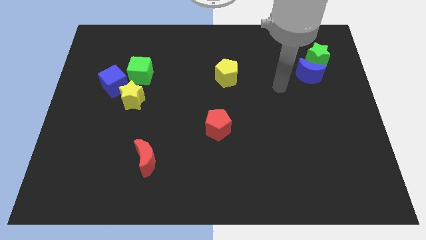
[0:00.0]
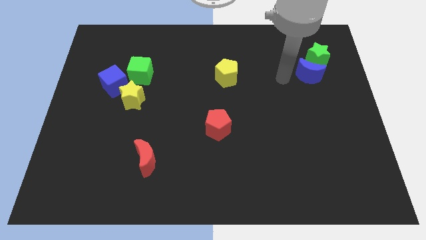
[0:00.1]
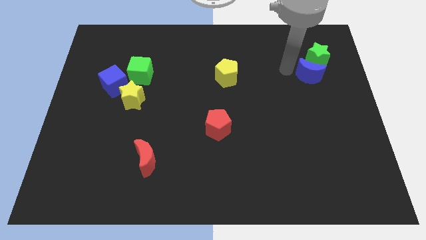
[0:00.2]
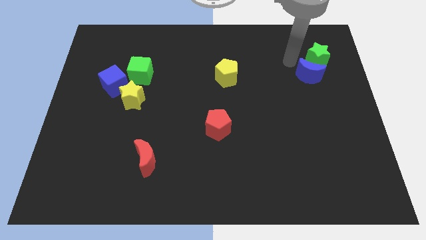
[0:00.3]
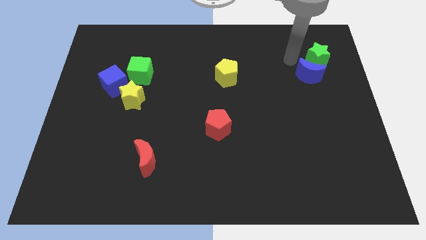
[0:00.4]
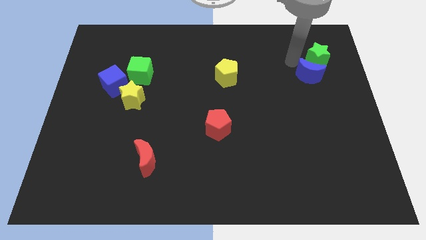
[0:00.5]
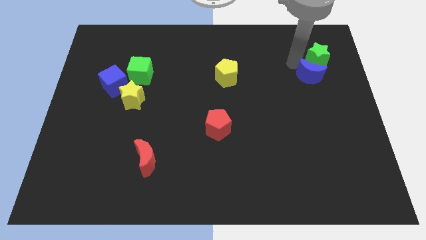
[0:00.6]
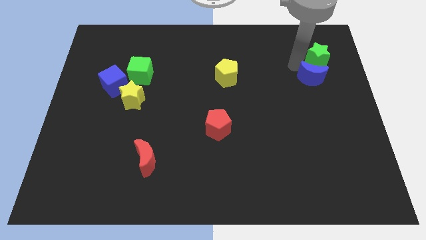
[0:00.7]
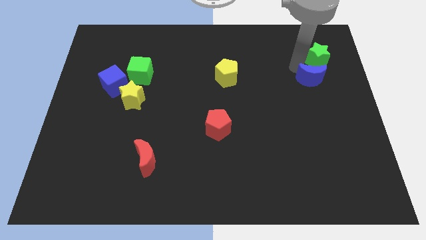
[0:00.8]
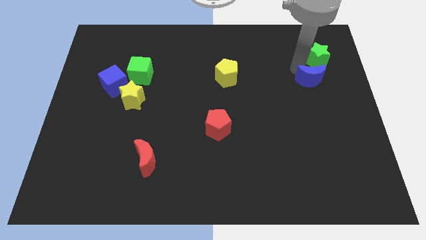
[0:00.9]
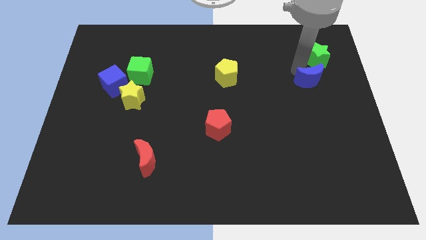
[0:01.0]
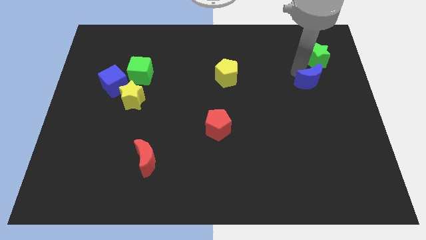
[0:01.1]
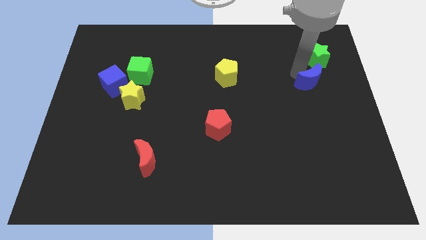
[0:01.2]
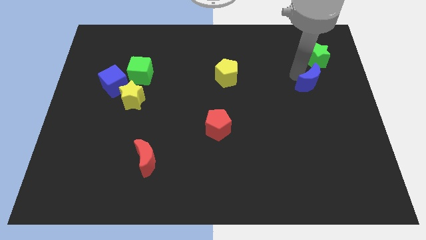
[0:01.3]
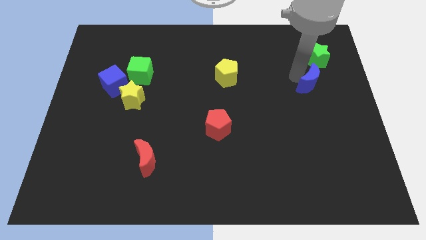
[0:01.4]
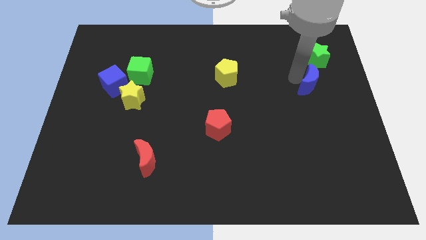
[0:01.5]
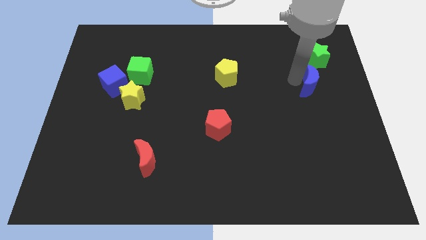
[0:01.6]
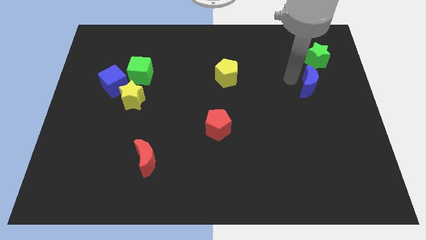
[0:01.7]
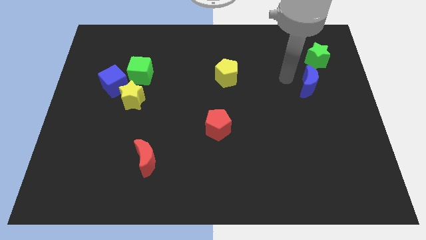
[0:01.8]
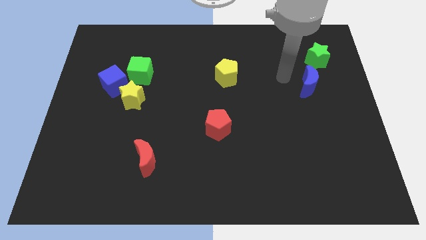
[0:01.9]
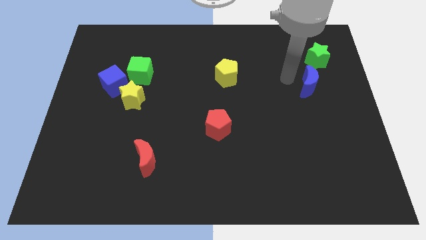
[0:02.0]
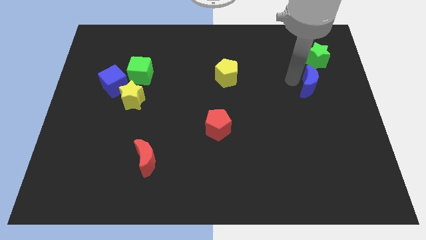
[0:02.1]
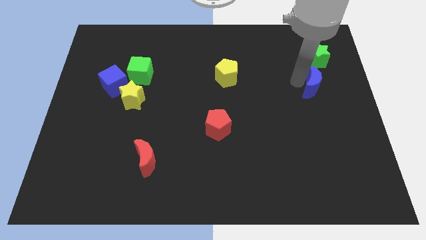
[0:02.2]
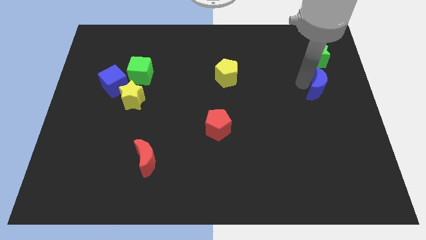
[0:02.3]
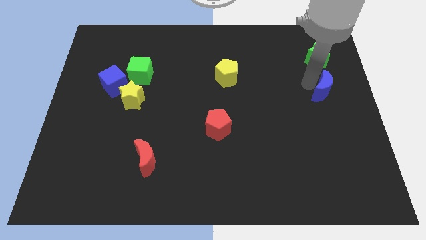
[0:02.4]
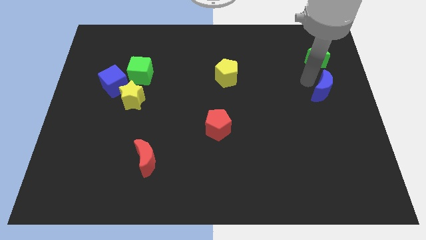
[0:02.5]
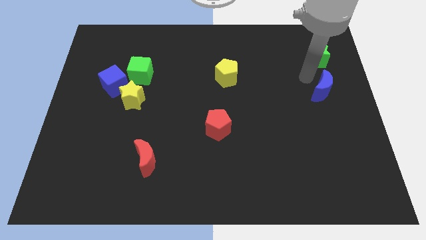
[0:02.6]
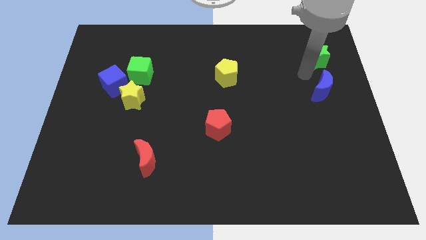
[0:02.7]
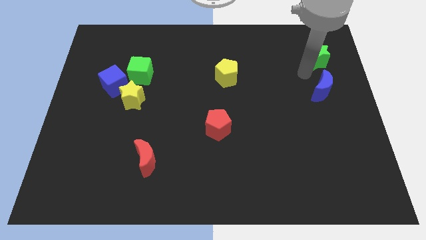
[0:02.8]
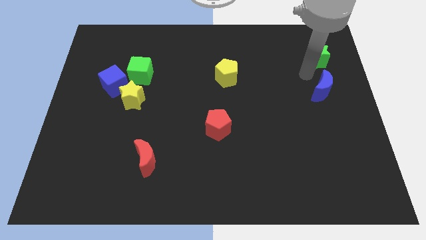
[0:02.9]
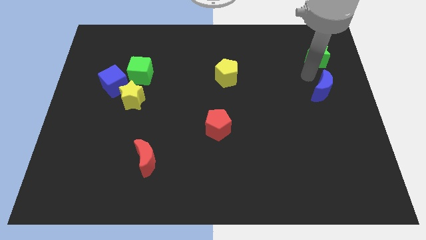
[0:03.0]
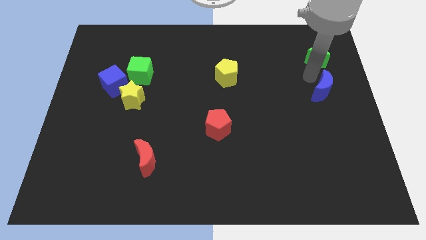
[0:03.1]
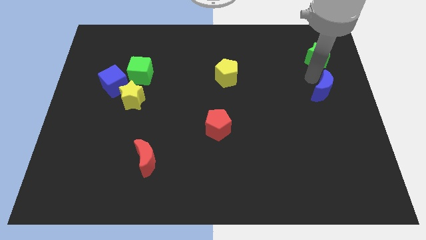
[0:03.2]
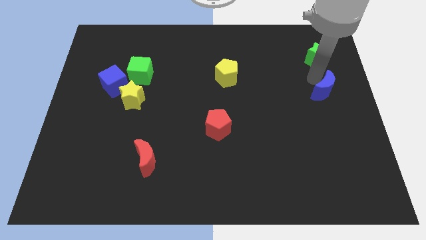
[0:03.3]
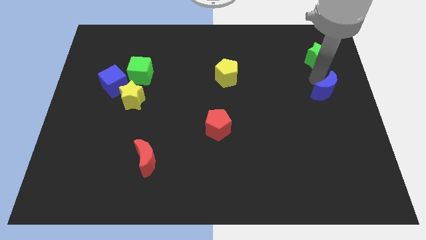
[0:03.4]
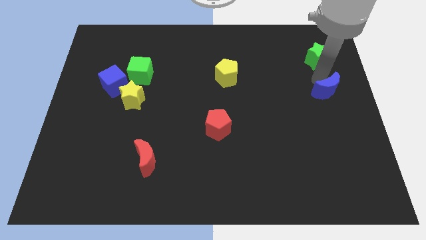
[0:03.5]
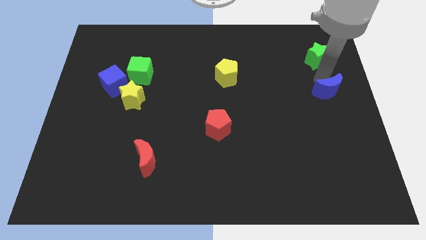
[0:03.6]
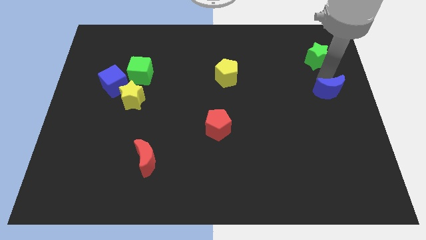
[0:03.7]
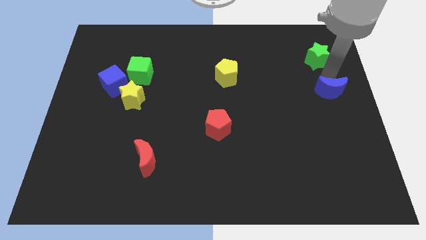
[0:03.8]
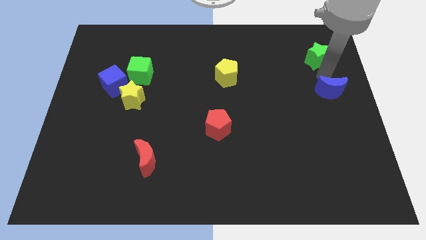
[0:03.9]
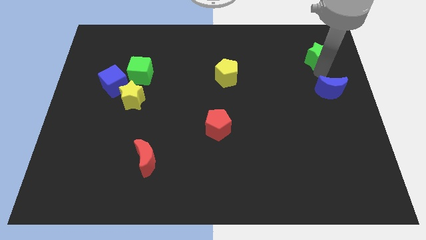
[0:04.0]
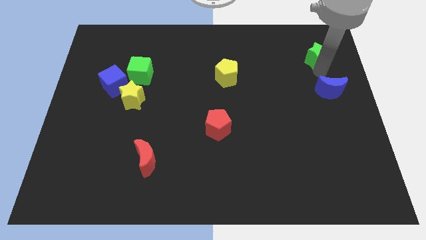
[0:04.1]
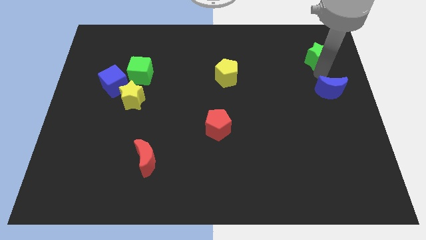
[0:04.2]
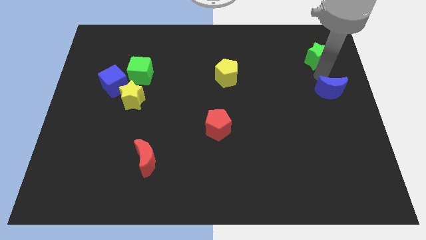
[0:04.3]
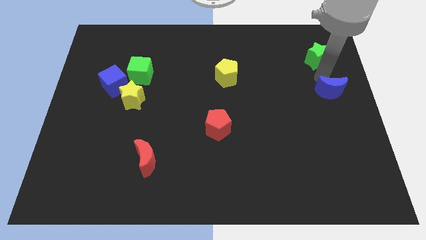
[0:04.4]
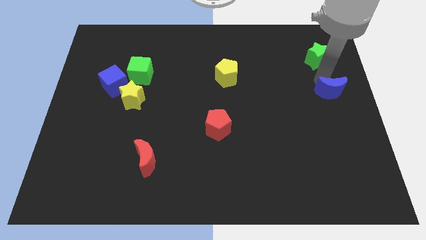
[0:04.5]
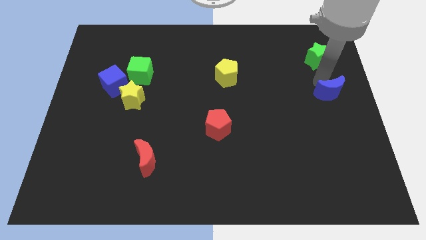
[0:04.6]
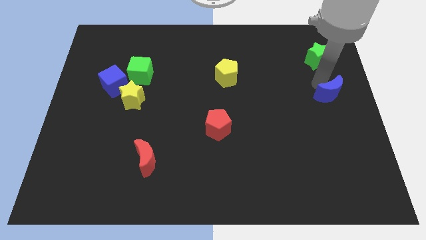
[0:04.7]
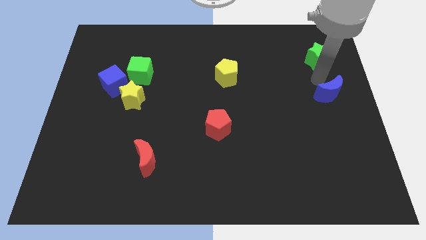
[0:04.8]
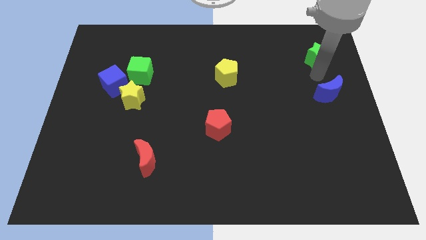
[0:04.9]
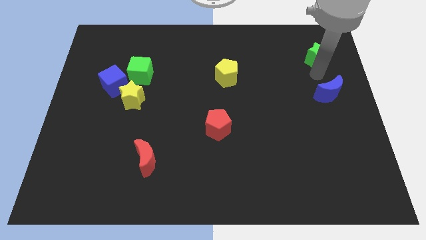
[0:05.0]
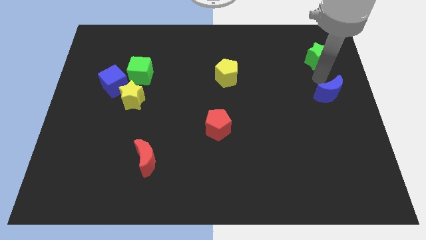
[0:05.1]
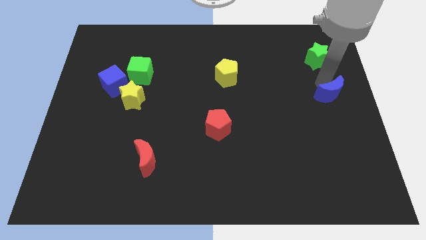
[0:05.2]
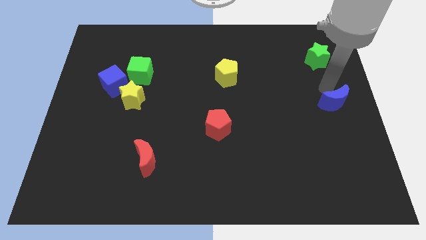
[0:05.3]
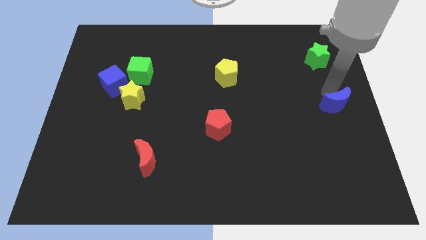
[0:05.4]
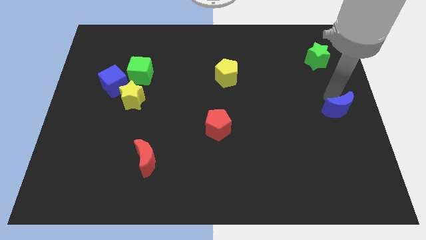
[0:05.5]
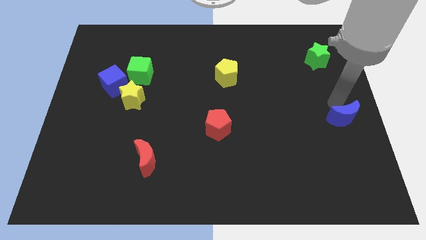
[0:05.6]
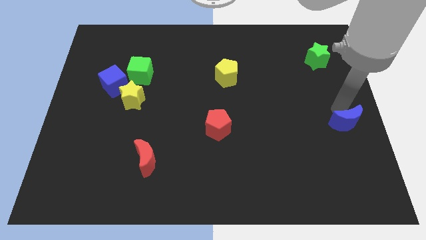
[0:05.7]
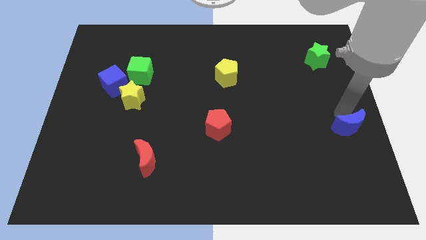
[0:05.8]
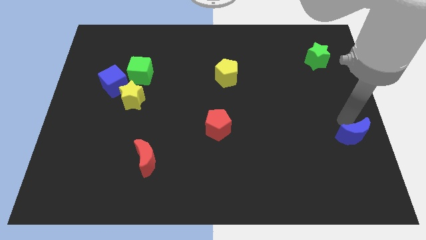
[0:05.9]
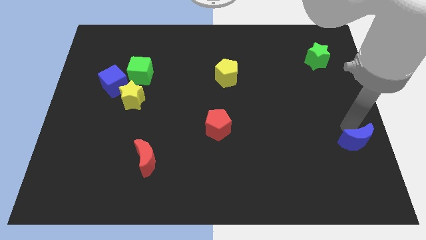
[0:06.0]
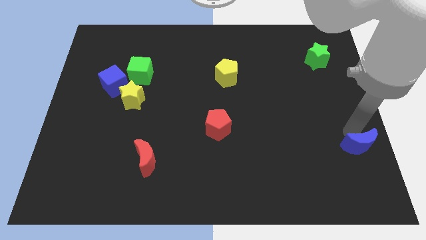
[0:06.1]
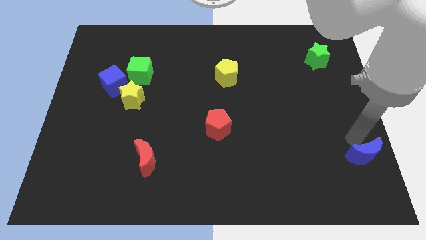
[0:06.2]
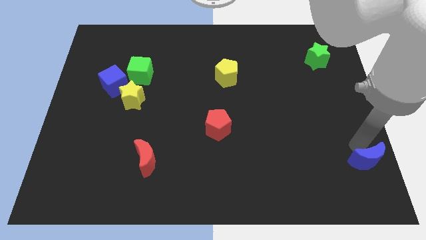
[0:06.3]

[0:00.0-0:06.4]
put the blue moon to the bottom right of the board
